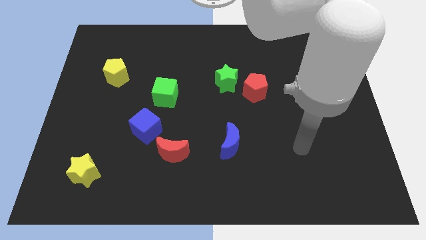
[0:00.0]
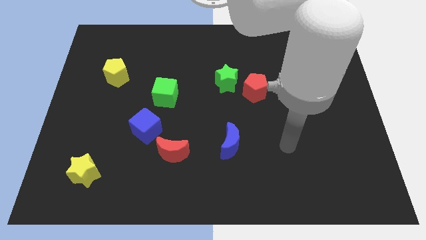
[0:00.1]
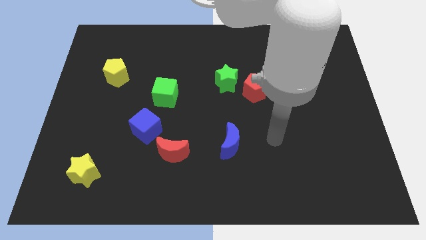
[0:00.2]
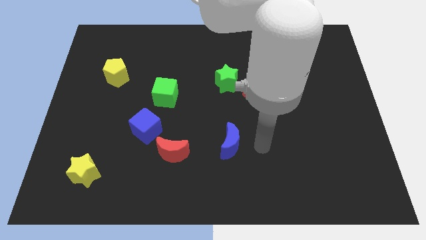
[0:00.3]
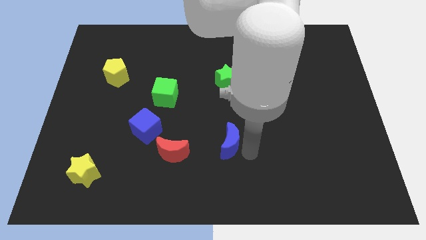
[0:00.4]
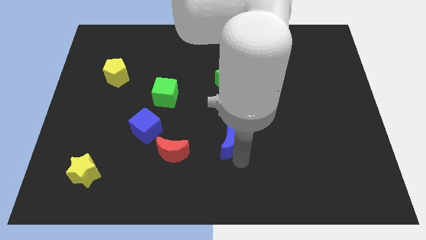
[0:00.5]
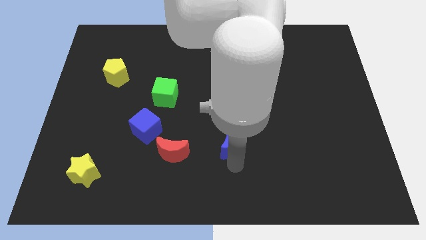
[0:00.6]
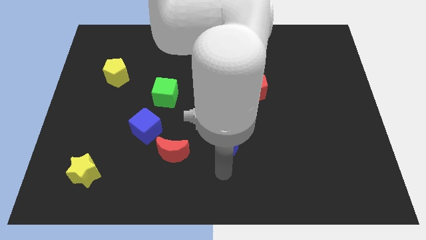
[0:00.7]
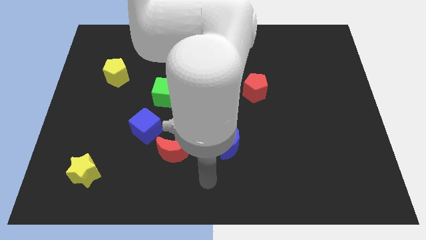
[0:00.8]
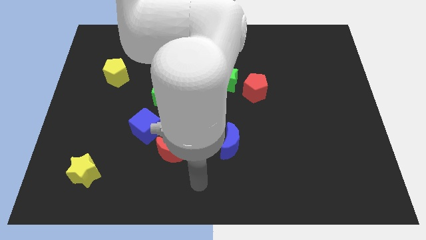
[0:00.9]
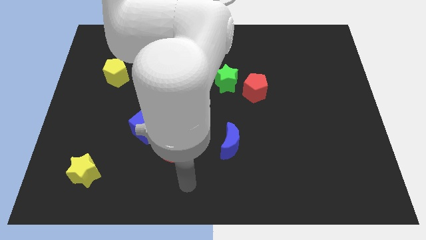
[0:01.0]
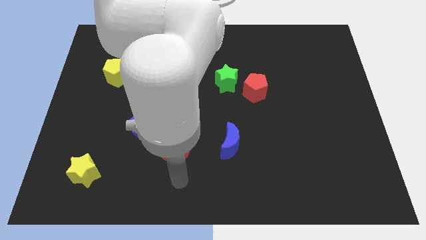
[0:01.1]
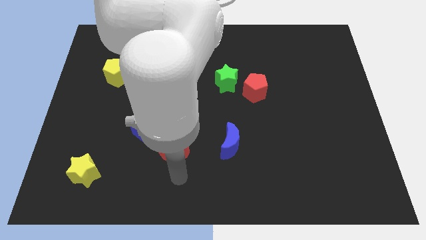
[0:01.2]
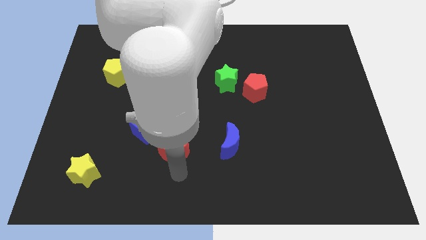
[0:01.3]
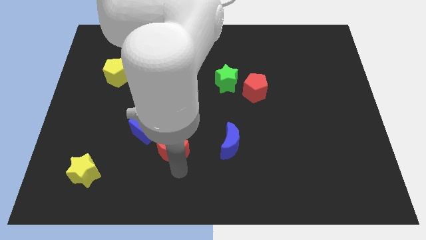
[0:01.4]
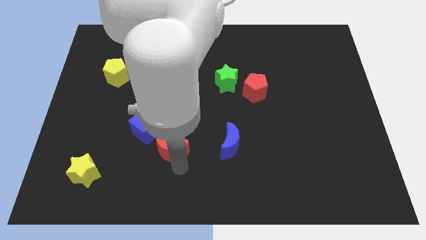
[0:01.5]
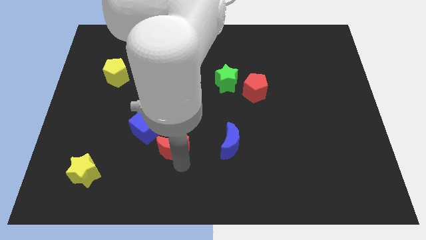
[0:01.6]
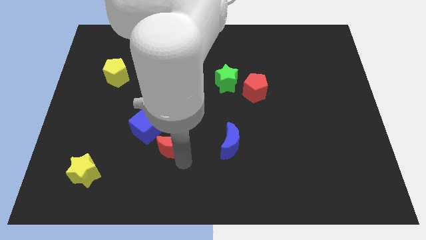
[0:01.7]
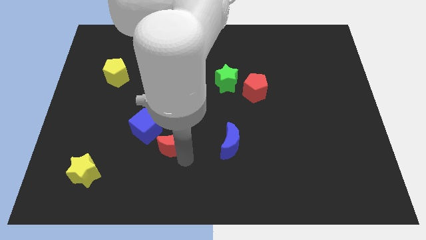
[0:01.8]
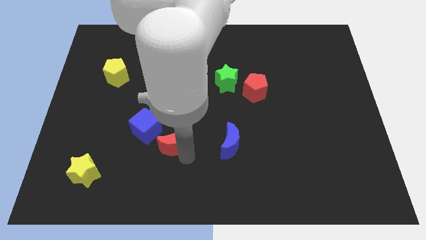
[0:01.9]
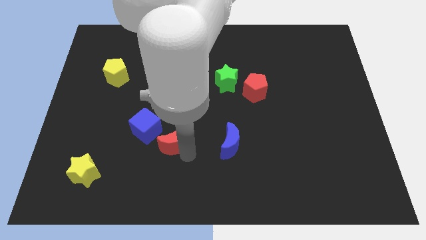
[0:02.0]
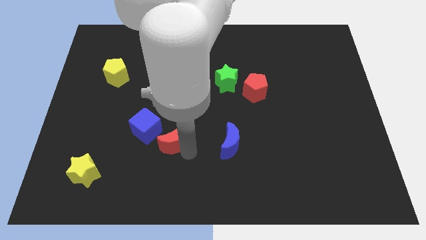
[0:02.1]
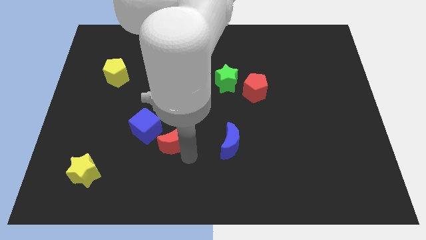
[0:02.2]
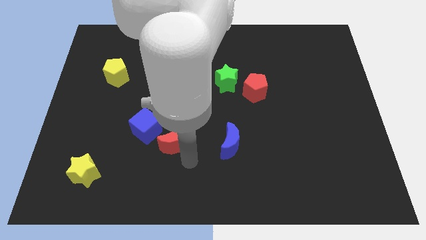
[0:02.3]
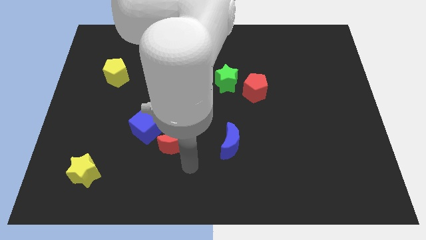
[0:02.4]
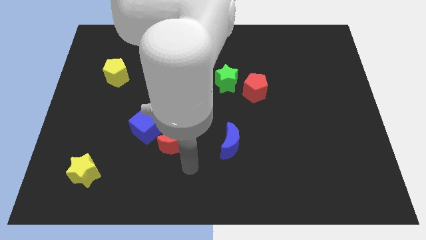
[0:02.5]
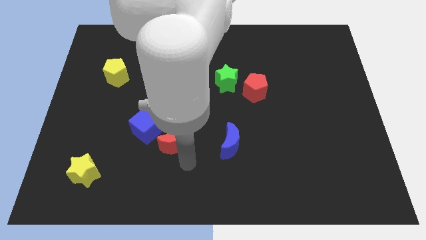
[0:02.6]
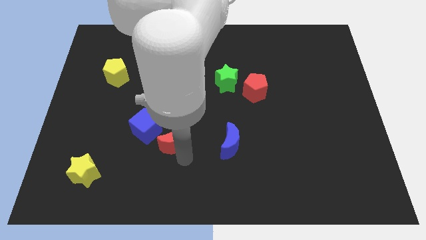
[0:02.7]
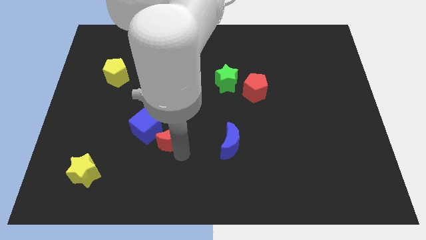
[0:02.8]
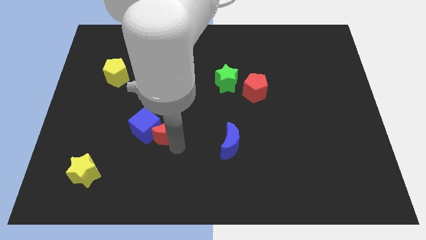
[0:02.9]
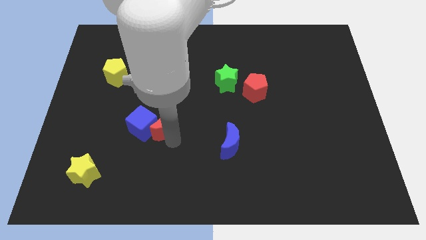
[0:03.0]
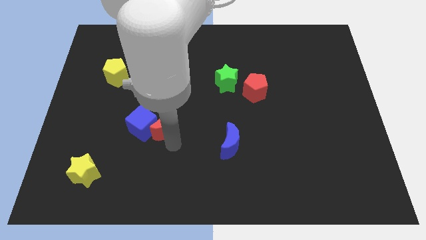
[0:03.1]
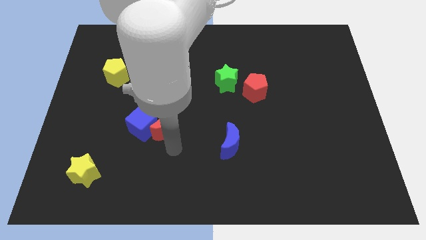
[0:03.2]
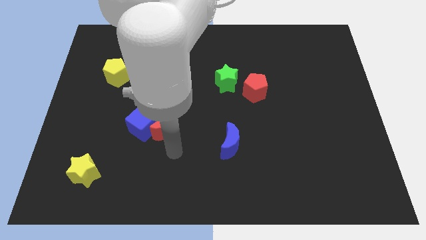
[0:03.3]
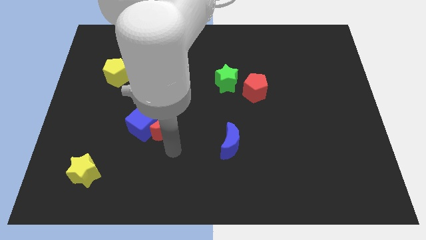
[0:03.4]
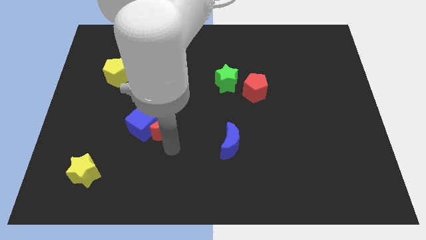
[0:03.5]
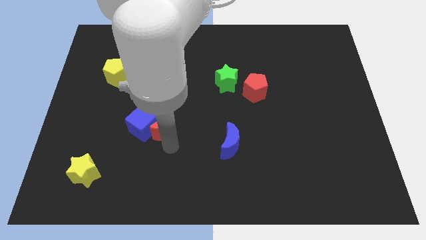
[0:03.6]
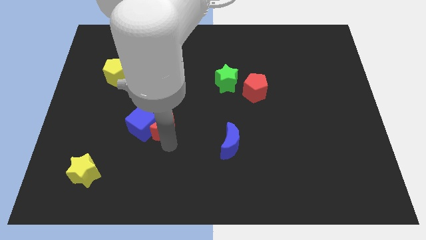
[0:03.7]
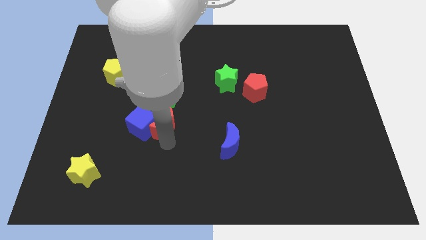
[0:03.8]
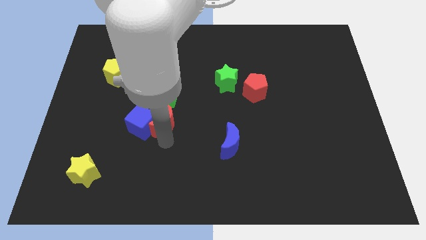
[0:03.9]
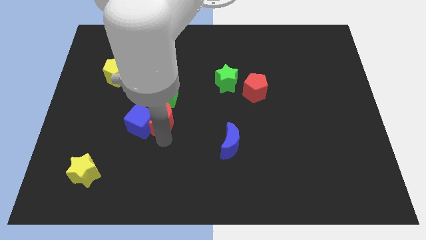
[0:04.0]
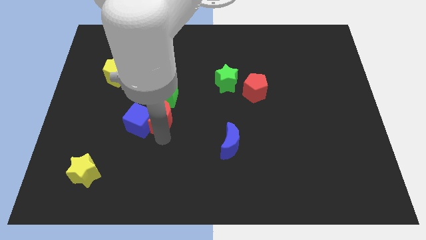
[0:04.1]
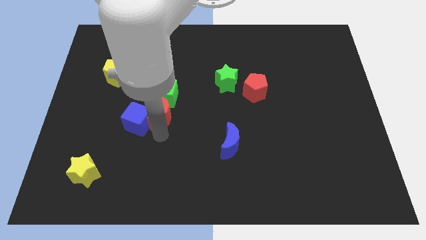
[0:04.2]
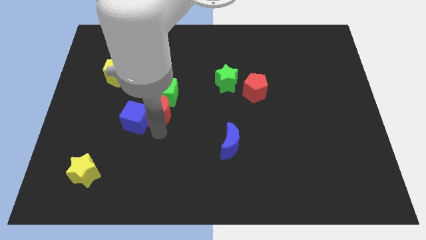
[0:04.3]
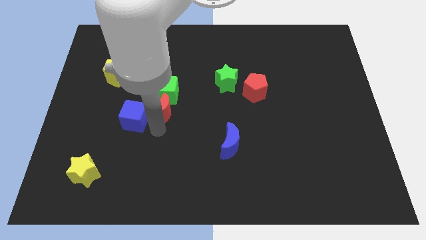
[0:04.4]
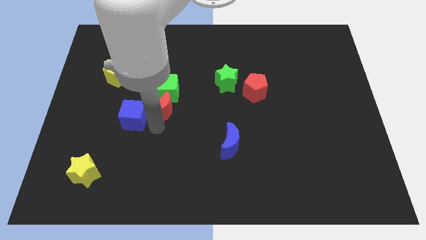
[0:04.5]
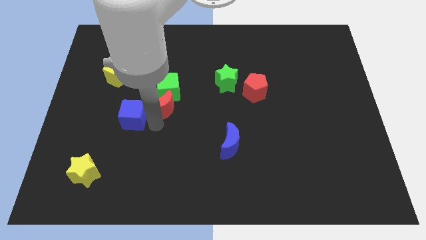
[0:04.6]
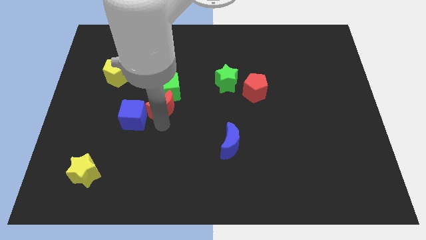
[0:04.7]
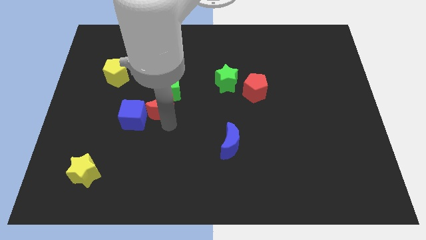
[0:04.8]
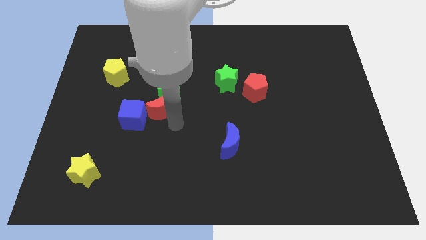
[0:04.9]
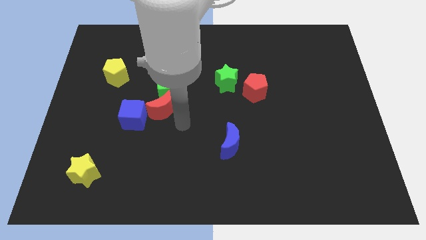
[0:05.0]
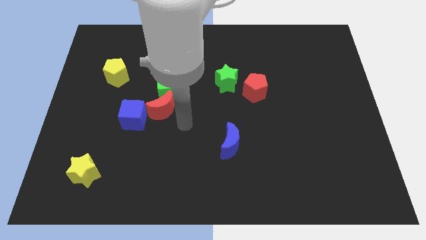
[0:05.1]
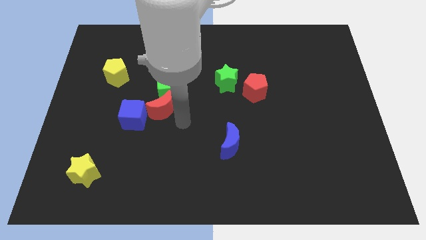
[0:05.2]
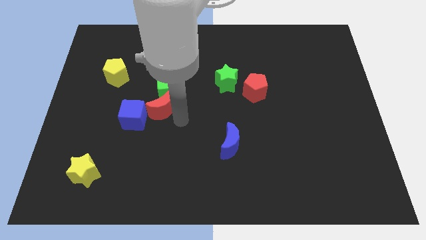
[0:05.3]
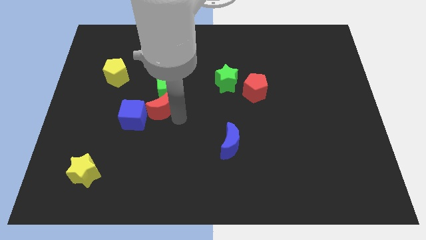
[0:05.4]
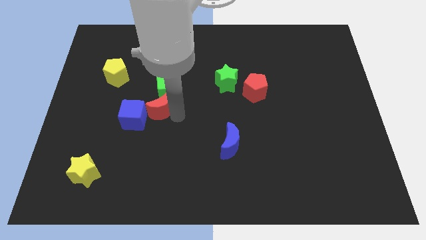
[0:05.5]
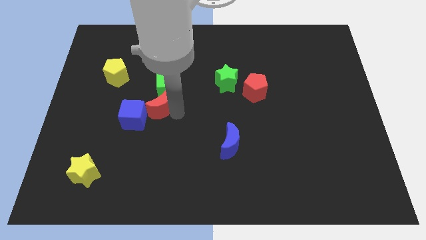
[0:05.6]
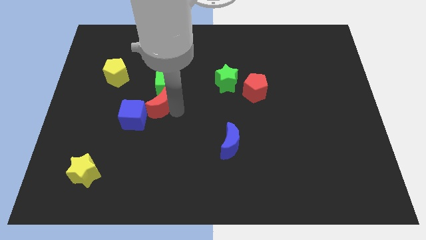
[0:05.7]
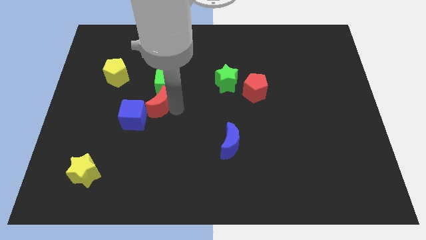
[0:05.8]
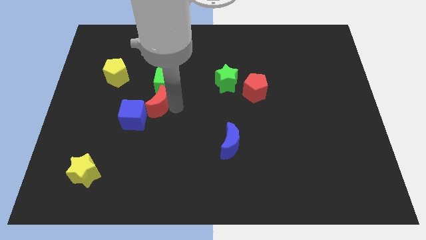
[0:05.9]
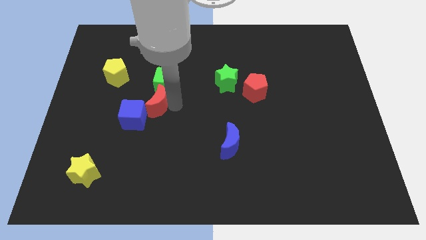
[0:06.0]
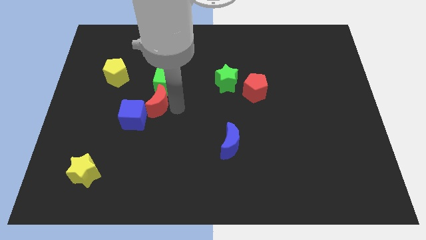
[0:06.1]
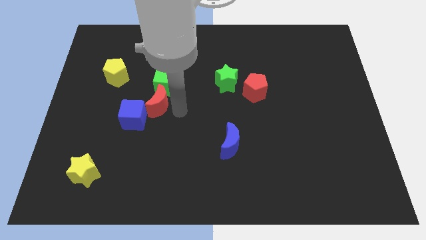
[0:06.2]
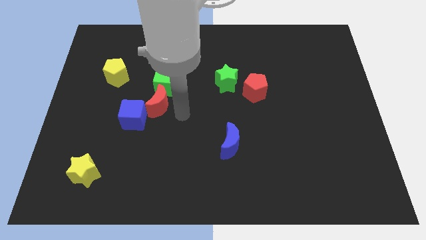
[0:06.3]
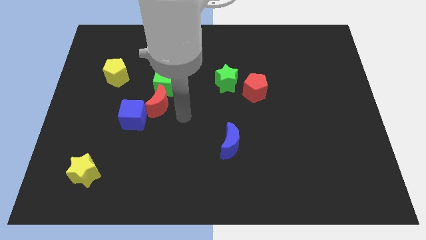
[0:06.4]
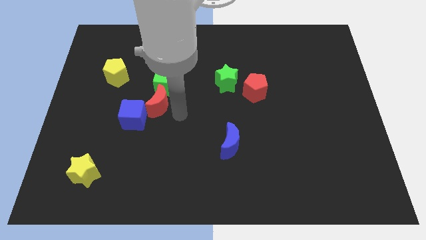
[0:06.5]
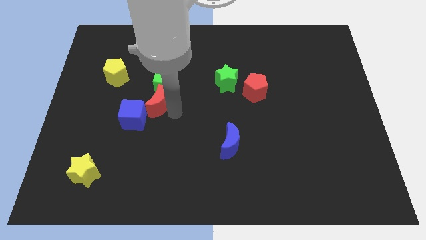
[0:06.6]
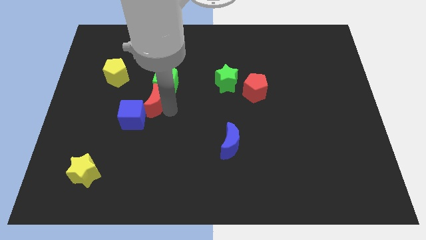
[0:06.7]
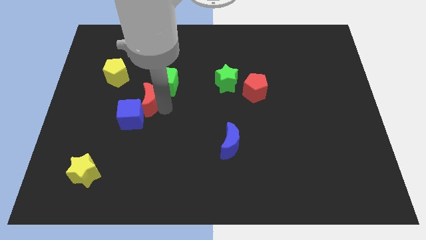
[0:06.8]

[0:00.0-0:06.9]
put the red moon diagonally down and to the right of the yellow pentagon
